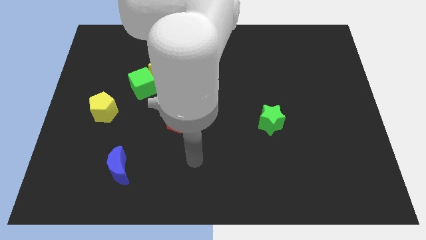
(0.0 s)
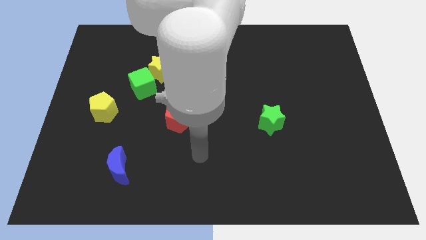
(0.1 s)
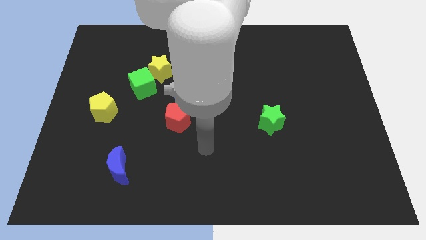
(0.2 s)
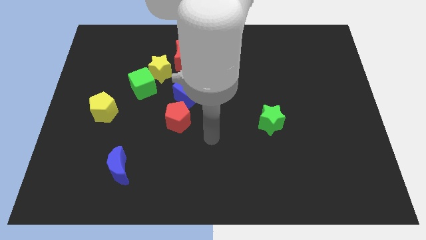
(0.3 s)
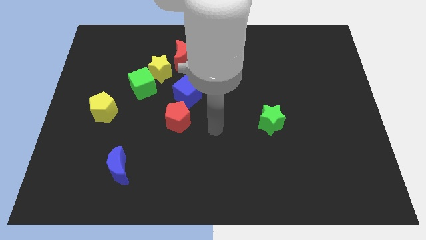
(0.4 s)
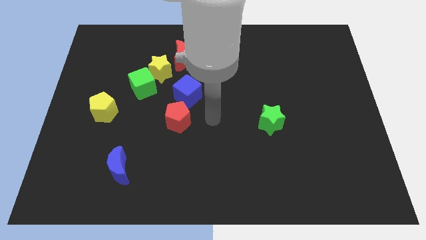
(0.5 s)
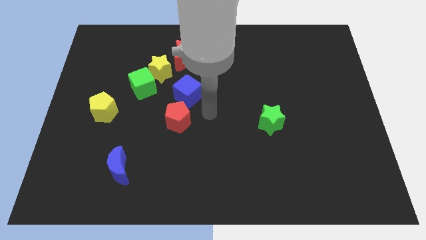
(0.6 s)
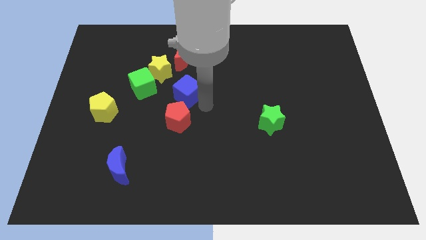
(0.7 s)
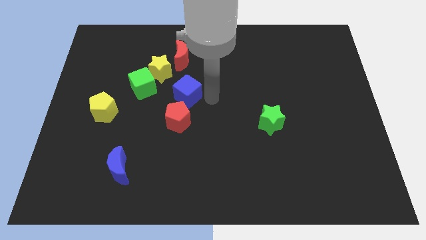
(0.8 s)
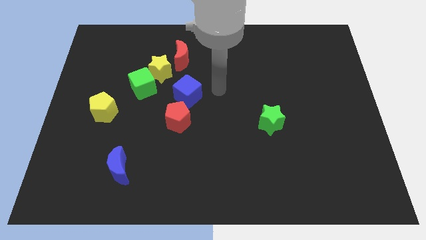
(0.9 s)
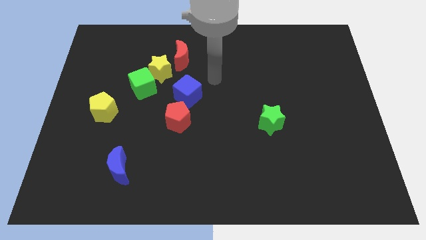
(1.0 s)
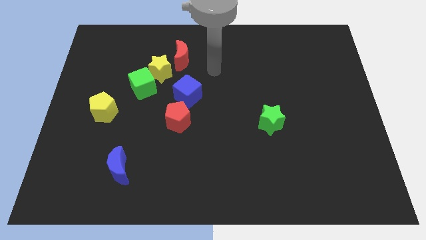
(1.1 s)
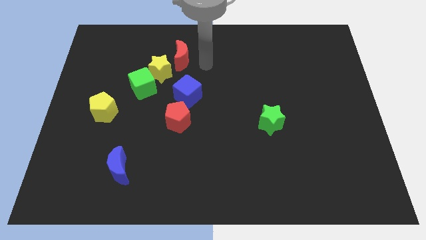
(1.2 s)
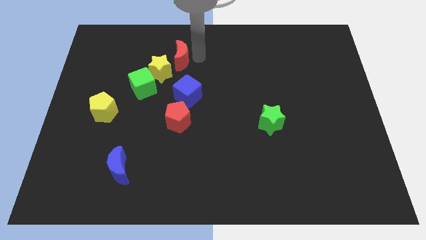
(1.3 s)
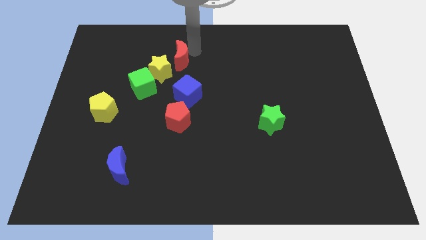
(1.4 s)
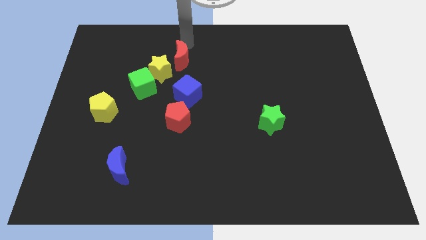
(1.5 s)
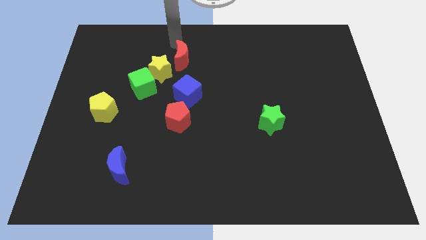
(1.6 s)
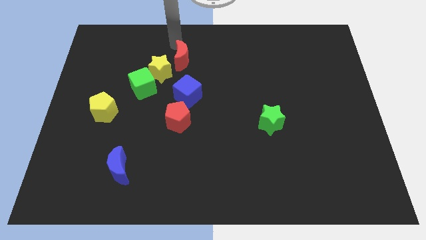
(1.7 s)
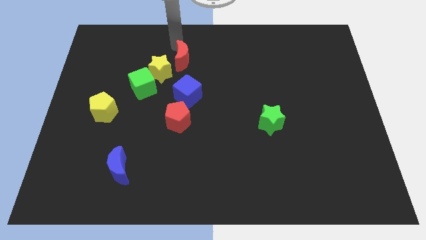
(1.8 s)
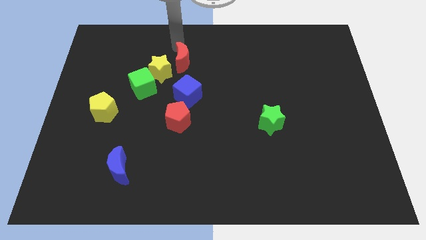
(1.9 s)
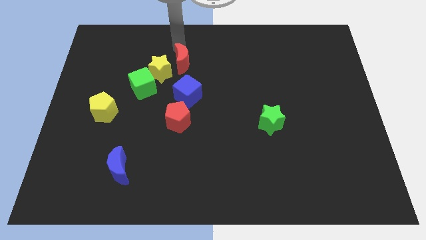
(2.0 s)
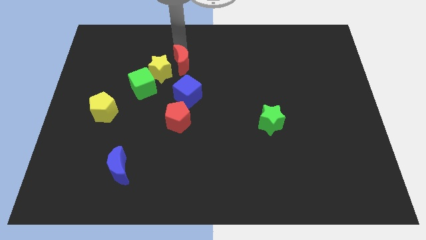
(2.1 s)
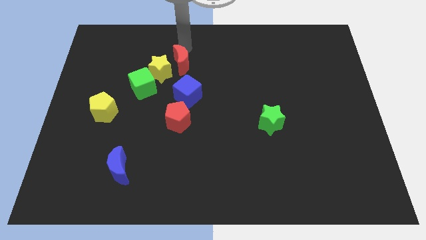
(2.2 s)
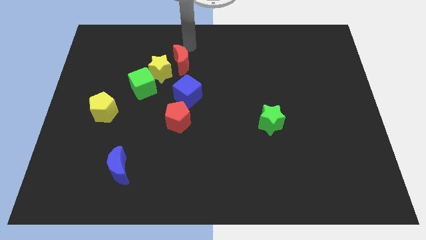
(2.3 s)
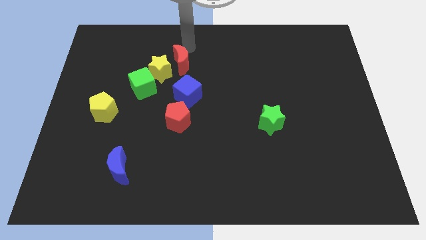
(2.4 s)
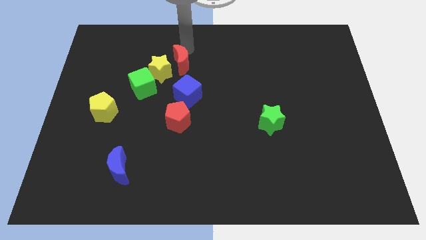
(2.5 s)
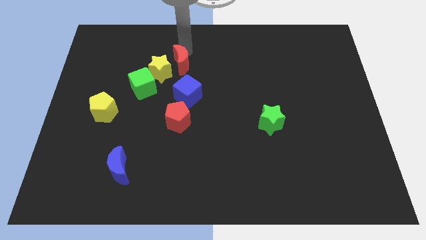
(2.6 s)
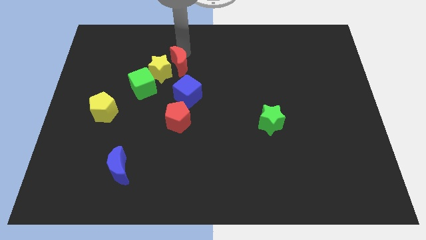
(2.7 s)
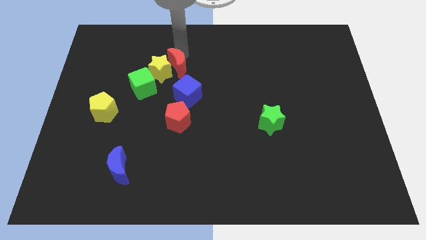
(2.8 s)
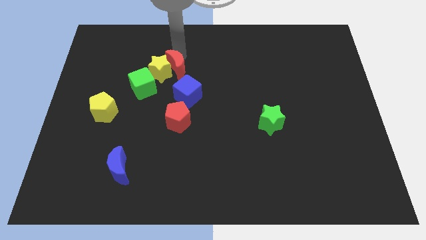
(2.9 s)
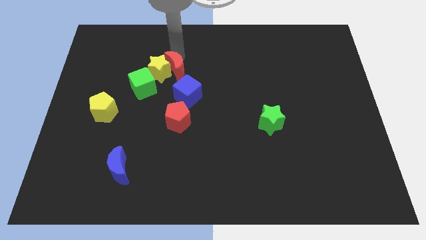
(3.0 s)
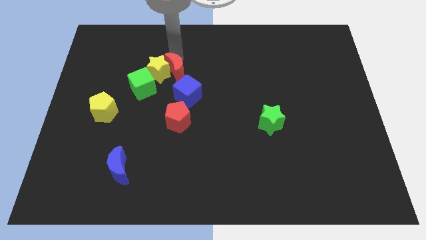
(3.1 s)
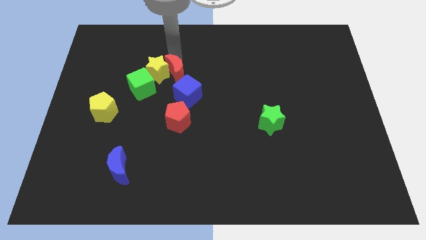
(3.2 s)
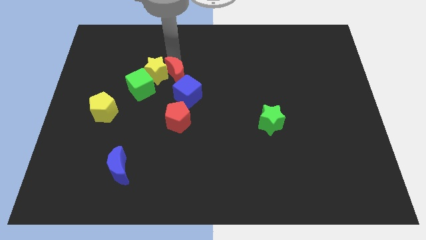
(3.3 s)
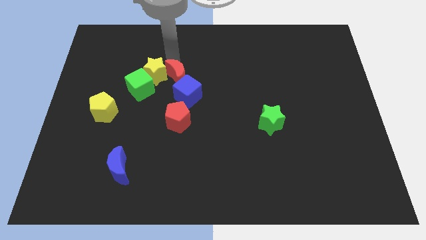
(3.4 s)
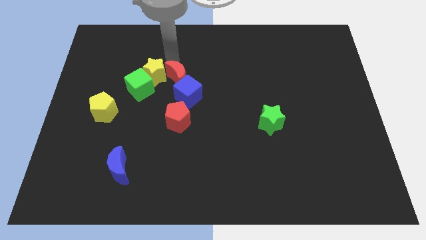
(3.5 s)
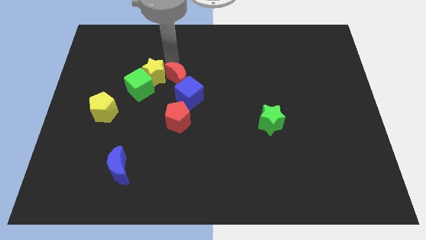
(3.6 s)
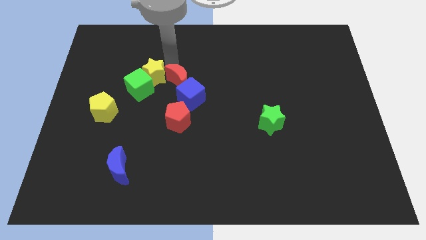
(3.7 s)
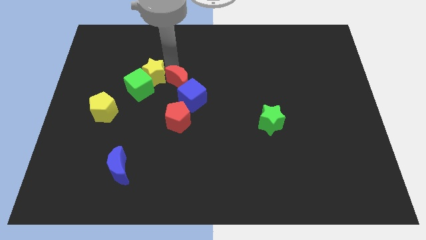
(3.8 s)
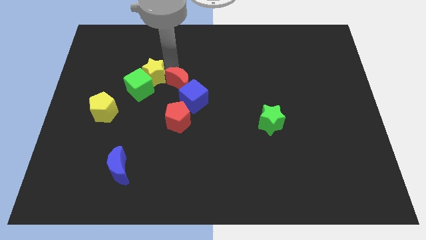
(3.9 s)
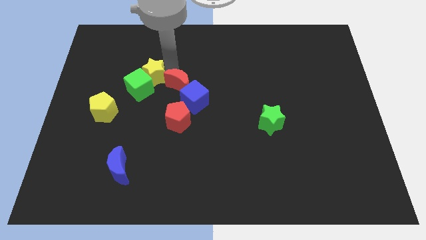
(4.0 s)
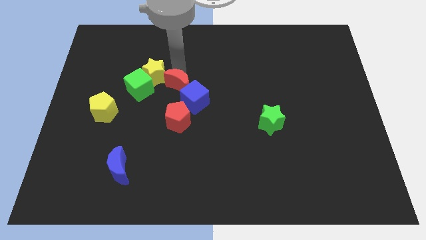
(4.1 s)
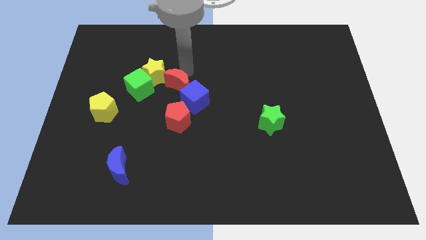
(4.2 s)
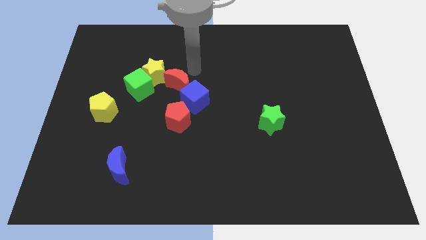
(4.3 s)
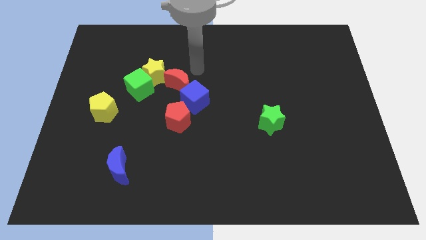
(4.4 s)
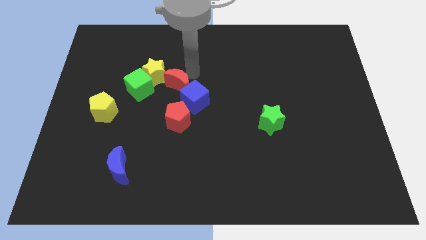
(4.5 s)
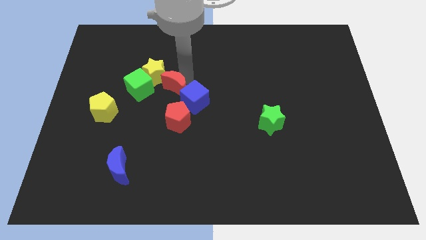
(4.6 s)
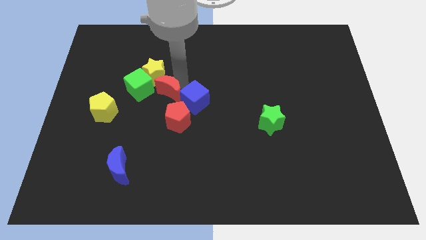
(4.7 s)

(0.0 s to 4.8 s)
move the red moon below the yellow star

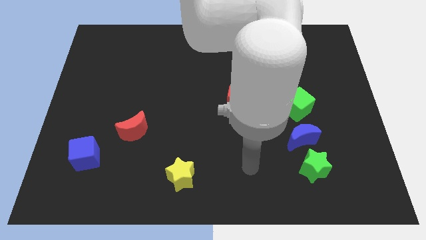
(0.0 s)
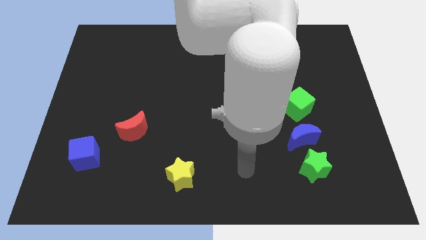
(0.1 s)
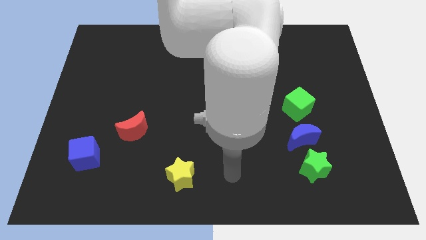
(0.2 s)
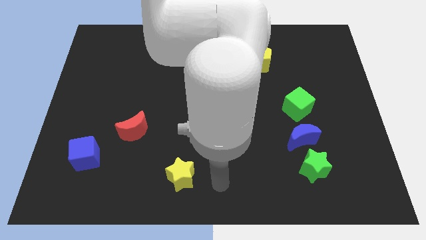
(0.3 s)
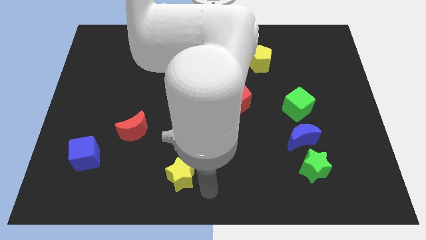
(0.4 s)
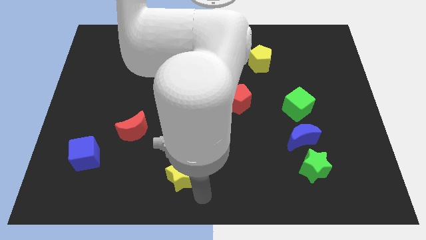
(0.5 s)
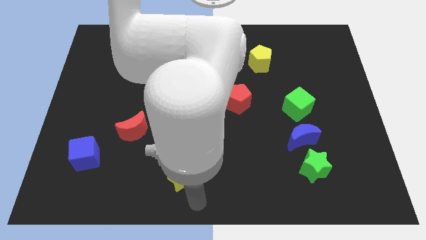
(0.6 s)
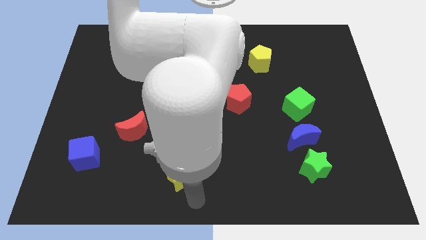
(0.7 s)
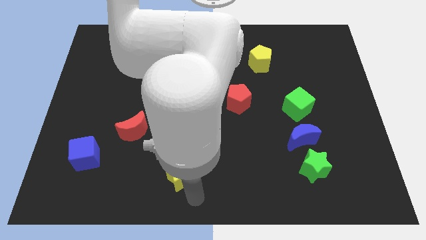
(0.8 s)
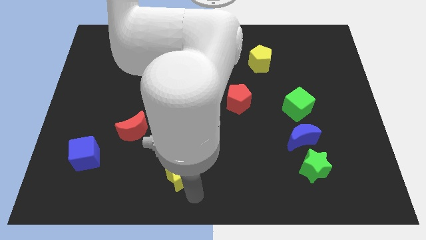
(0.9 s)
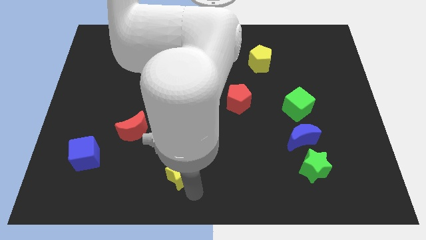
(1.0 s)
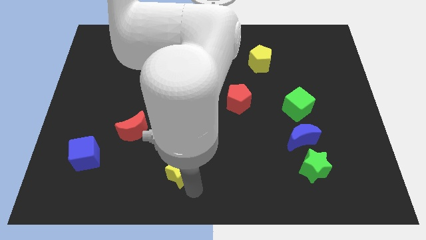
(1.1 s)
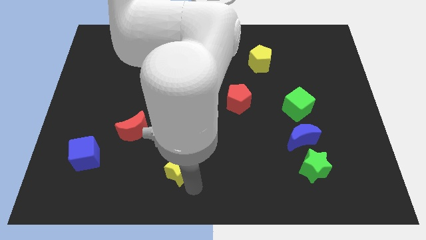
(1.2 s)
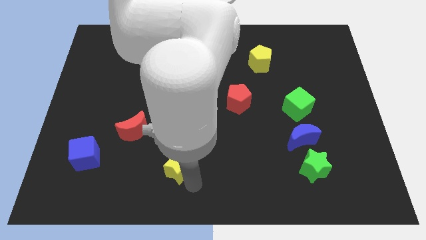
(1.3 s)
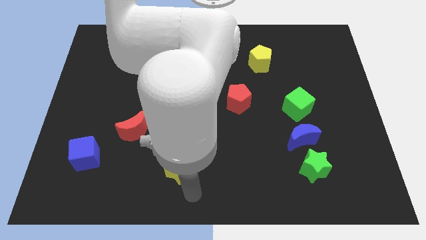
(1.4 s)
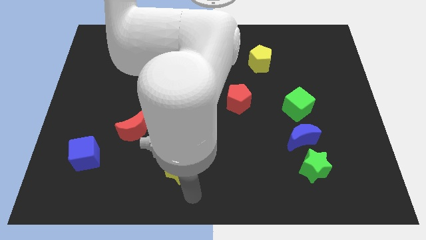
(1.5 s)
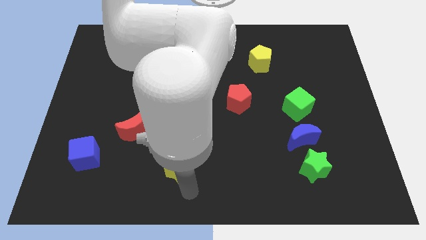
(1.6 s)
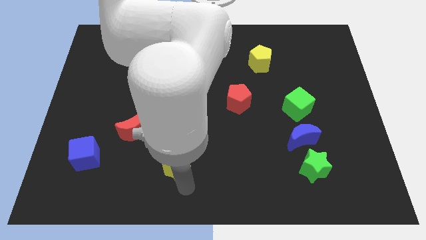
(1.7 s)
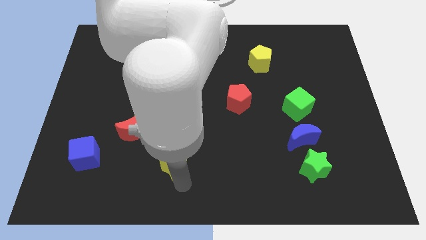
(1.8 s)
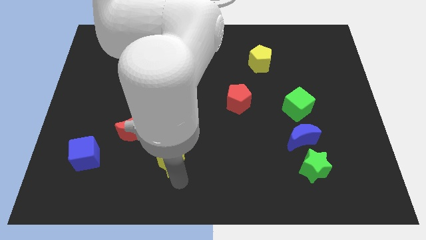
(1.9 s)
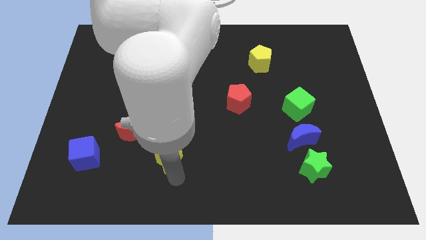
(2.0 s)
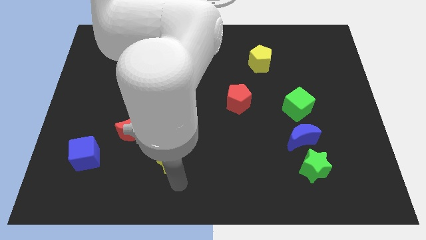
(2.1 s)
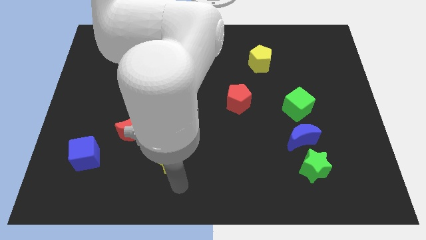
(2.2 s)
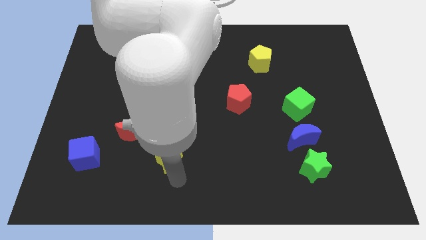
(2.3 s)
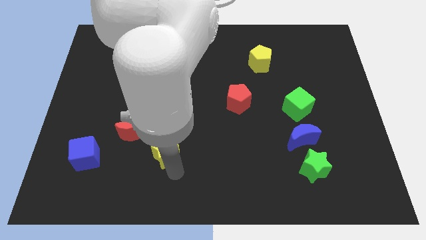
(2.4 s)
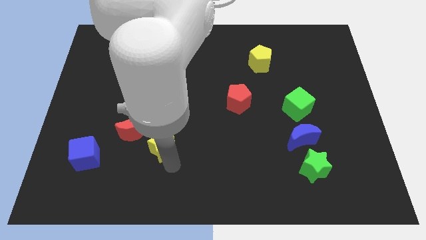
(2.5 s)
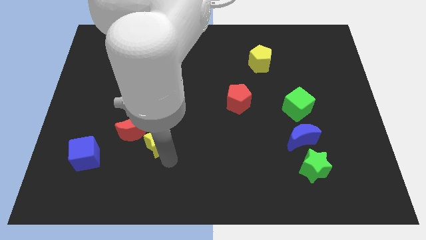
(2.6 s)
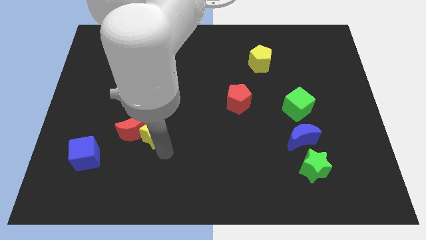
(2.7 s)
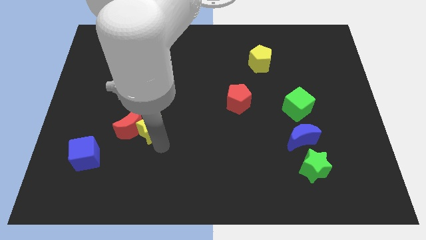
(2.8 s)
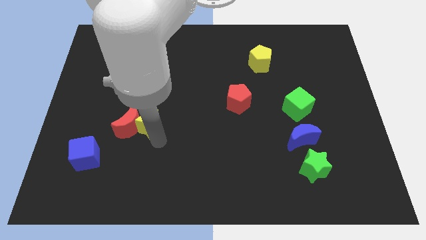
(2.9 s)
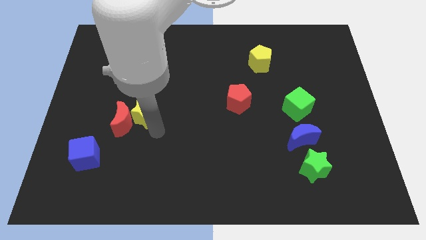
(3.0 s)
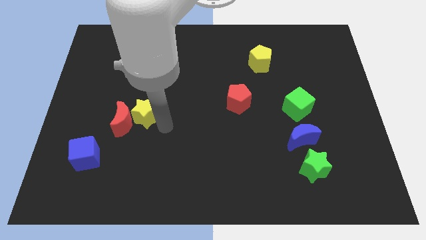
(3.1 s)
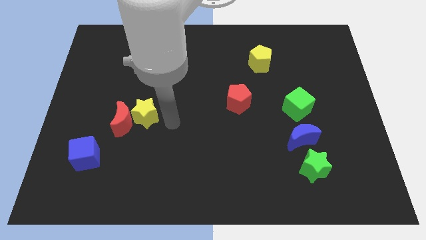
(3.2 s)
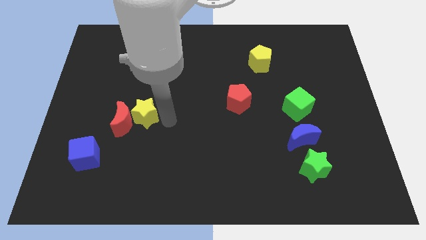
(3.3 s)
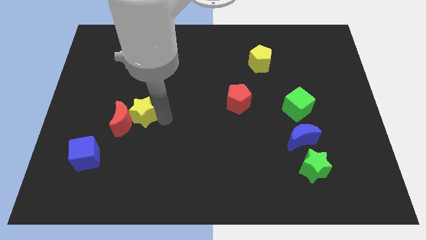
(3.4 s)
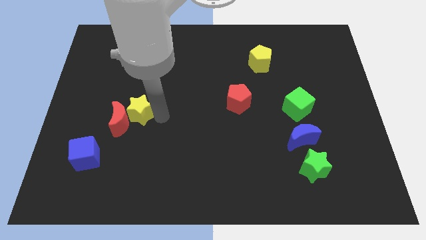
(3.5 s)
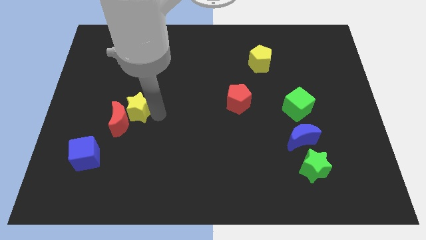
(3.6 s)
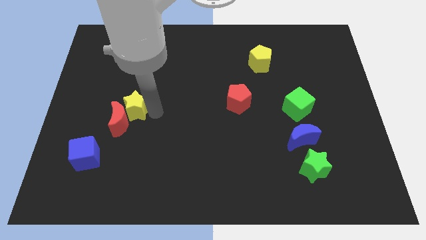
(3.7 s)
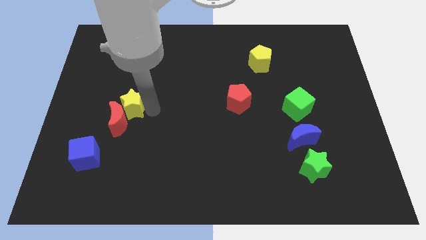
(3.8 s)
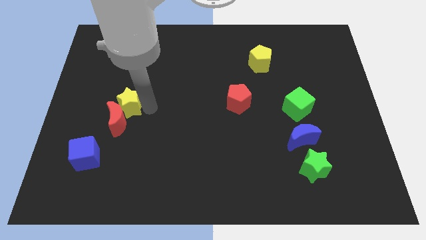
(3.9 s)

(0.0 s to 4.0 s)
move the yellow star to the top left of the red moon
